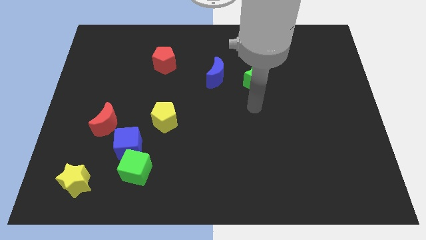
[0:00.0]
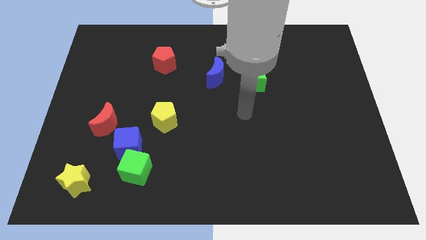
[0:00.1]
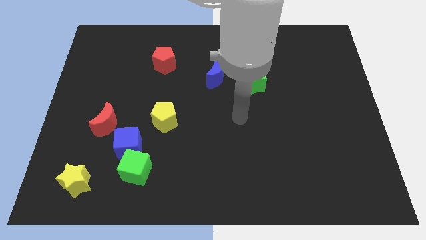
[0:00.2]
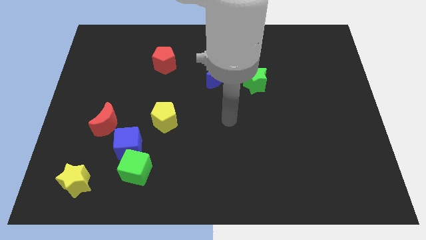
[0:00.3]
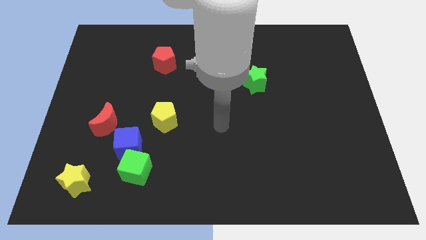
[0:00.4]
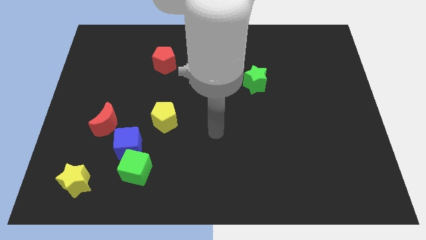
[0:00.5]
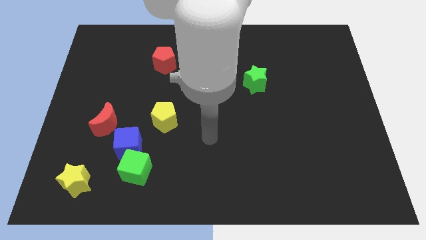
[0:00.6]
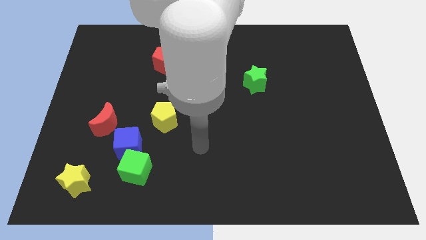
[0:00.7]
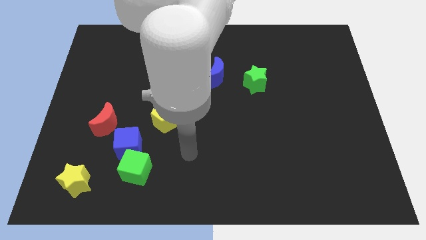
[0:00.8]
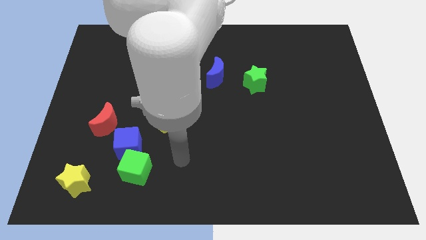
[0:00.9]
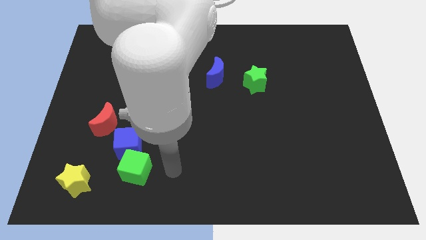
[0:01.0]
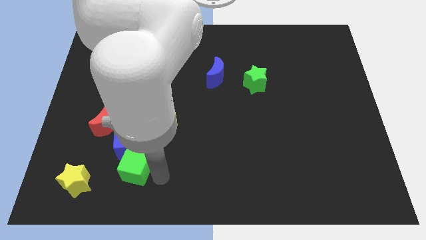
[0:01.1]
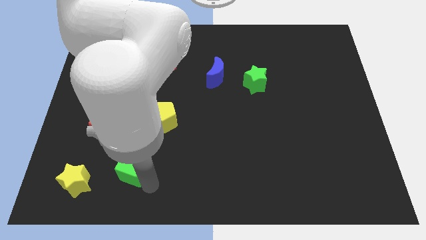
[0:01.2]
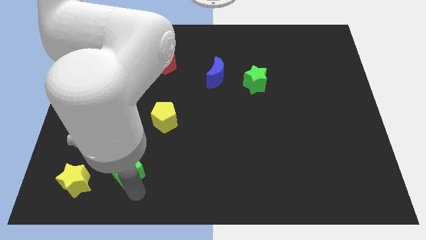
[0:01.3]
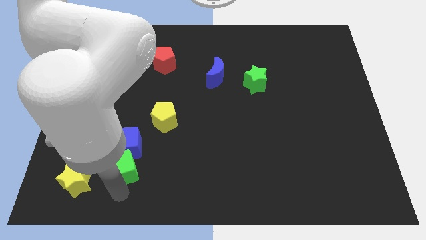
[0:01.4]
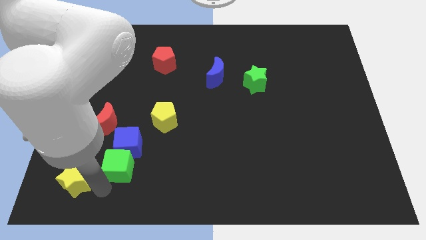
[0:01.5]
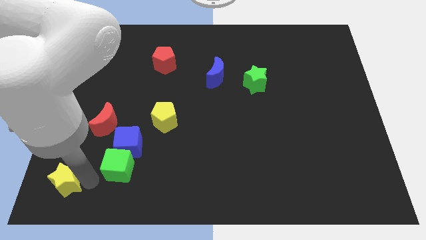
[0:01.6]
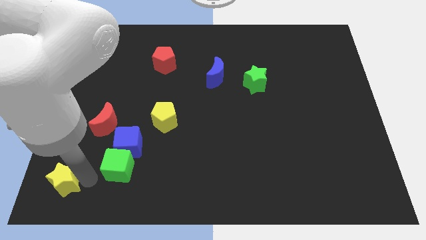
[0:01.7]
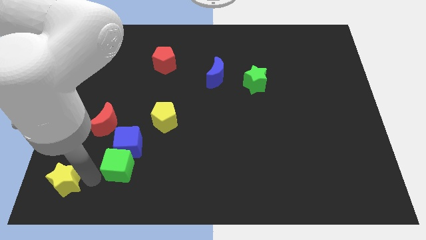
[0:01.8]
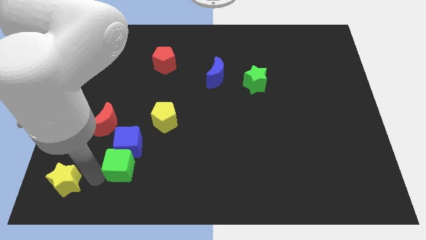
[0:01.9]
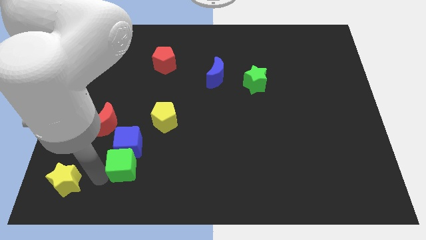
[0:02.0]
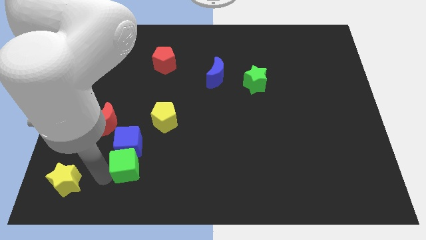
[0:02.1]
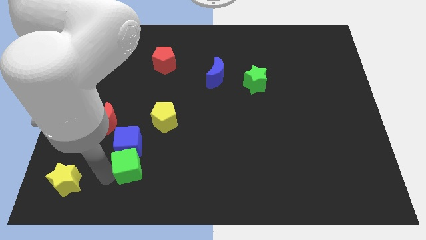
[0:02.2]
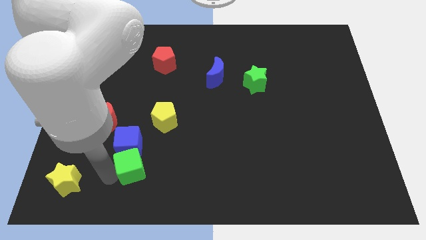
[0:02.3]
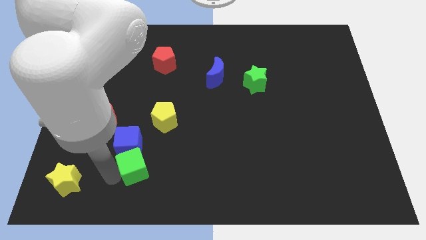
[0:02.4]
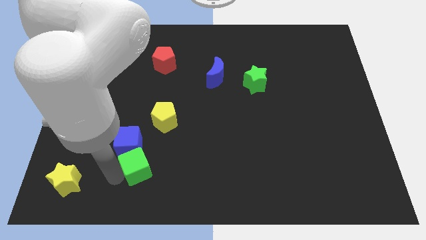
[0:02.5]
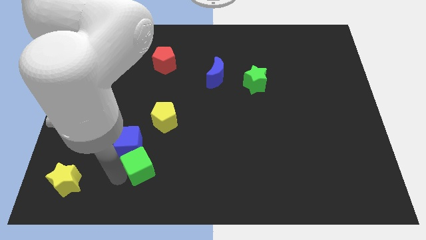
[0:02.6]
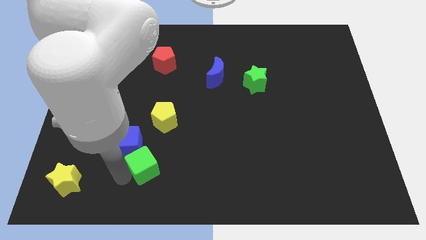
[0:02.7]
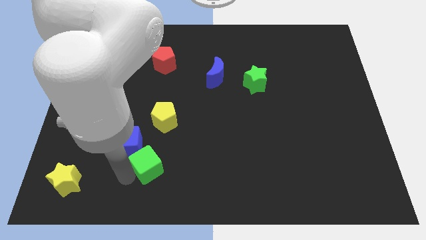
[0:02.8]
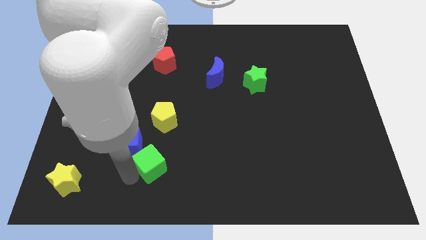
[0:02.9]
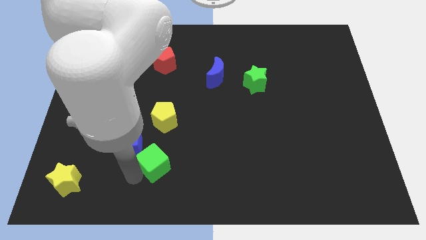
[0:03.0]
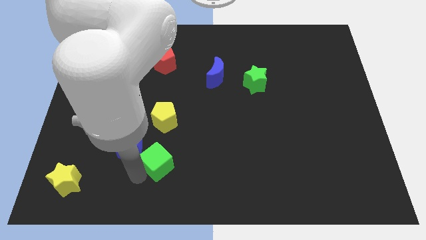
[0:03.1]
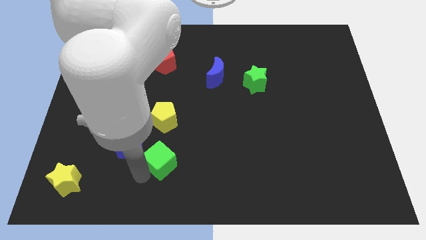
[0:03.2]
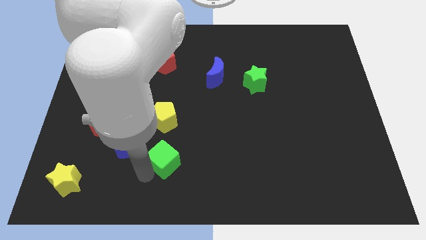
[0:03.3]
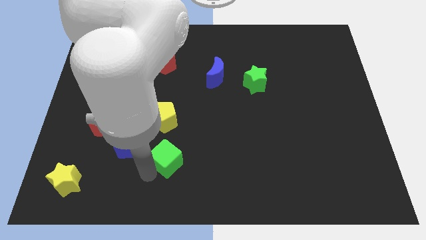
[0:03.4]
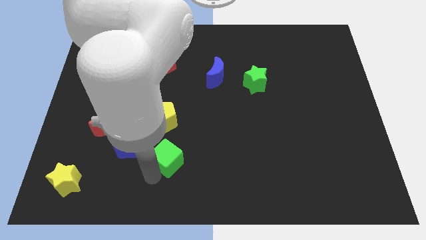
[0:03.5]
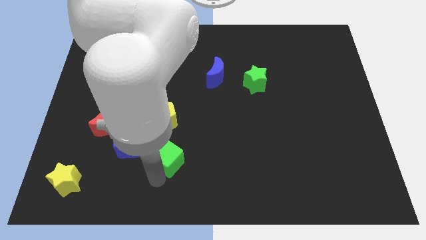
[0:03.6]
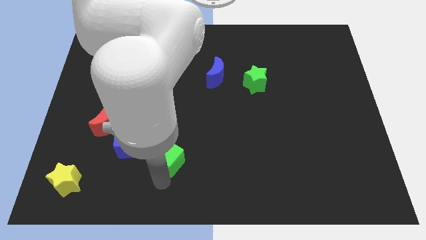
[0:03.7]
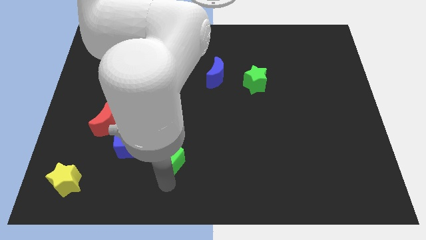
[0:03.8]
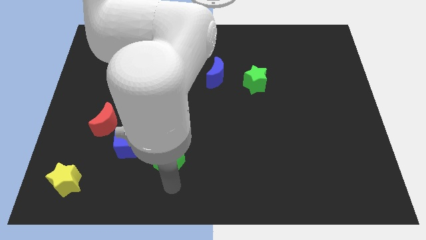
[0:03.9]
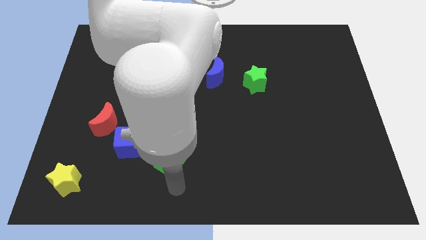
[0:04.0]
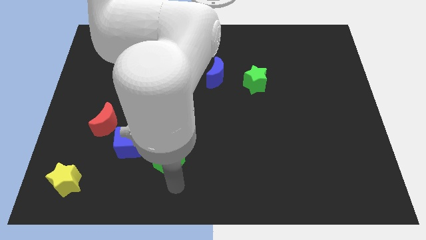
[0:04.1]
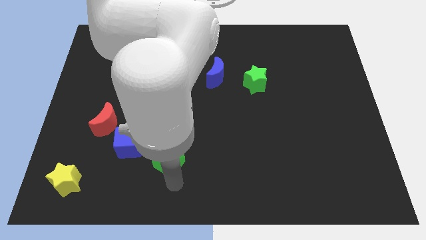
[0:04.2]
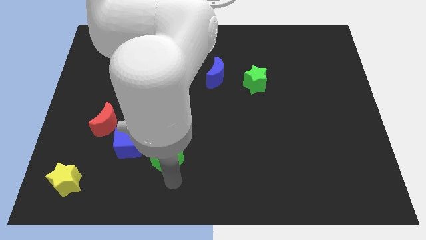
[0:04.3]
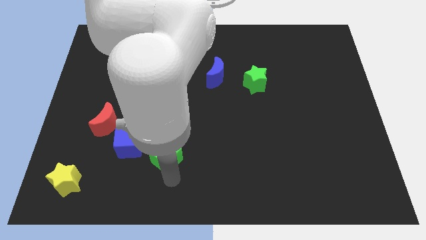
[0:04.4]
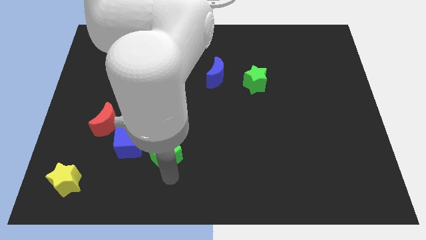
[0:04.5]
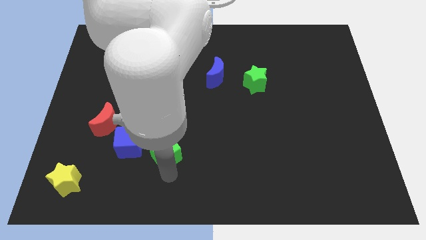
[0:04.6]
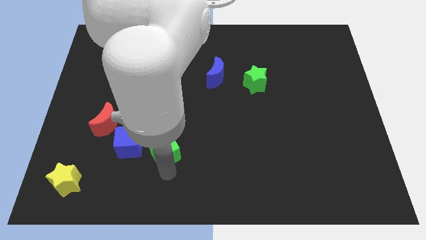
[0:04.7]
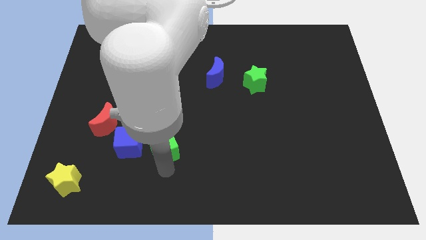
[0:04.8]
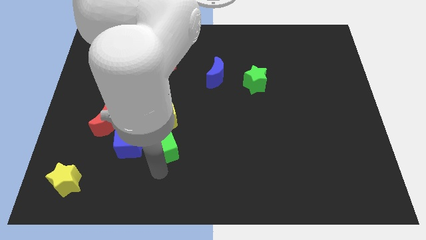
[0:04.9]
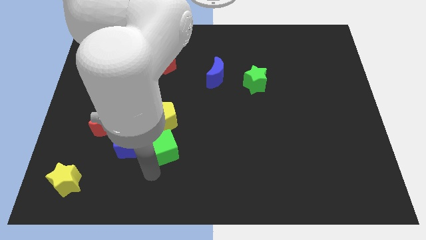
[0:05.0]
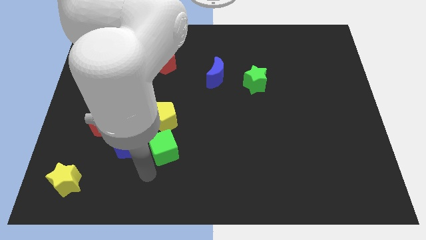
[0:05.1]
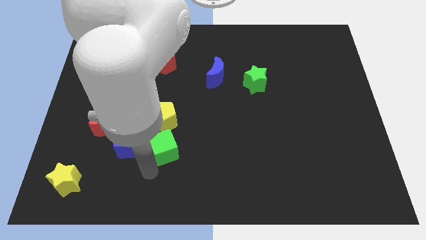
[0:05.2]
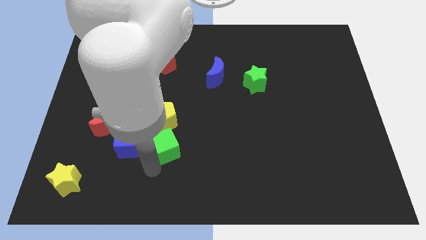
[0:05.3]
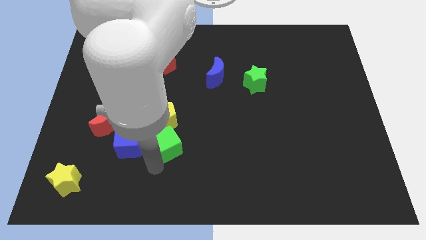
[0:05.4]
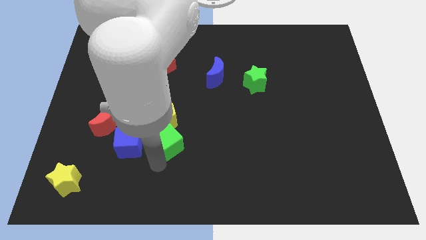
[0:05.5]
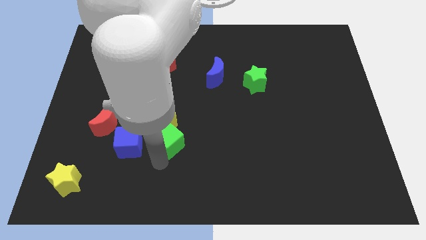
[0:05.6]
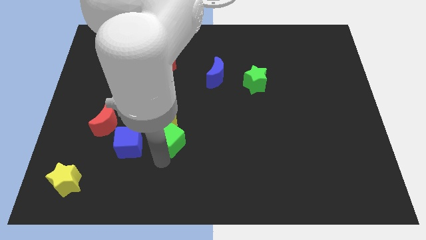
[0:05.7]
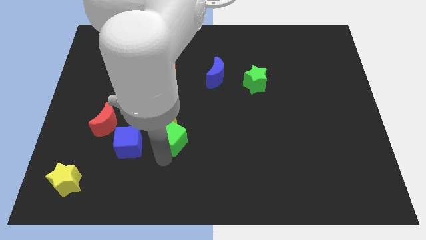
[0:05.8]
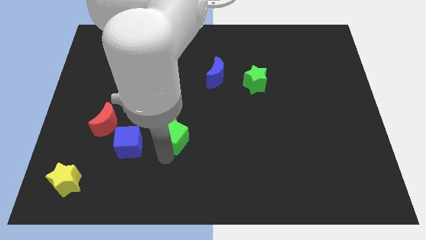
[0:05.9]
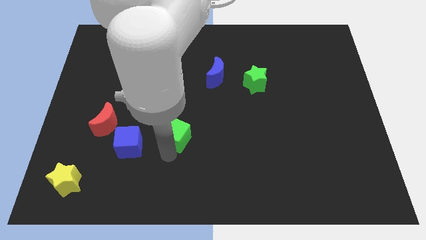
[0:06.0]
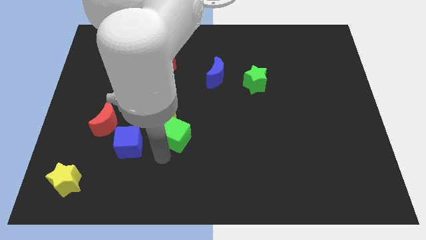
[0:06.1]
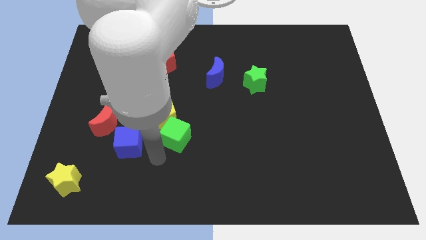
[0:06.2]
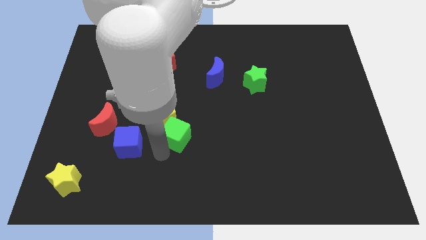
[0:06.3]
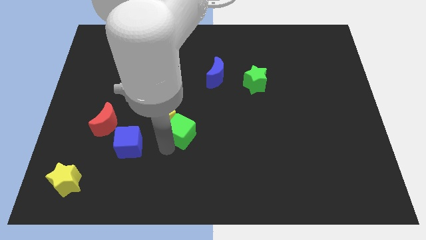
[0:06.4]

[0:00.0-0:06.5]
push the green cube to the center of the board
